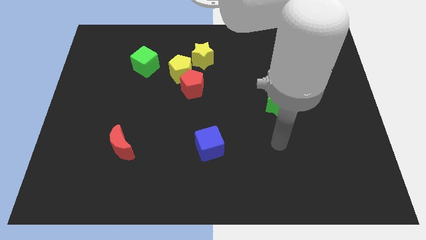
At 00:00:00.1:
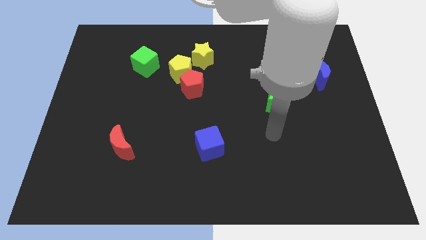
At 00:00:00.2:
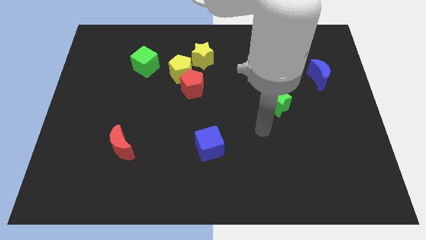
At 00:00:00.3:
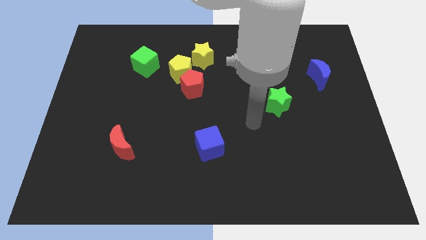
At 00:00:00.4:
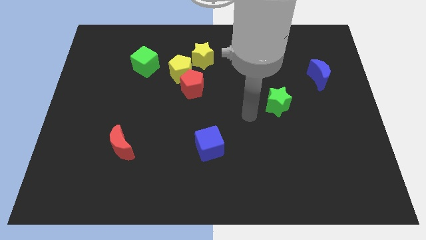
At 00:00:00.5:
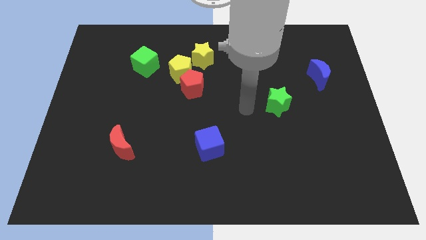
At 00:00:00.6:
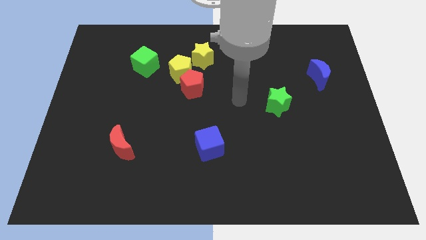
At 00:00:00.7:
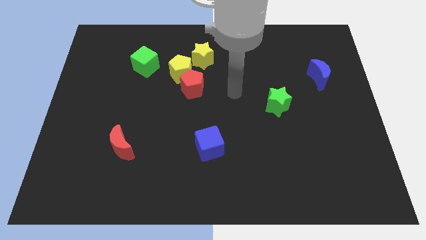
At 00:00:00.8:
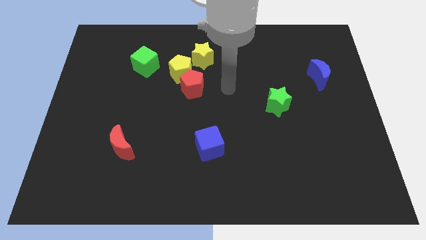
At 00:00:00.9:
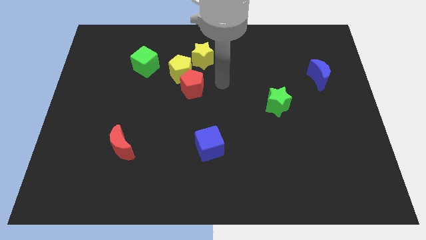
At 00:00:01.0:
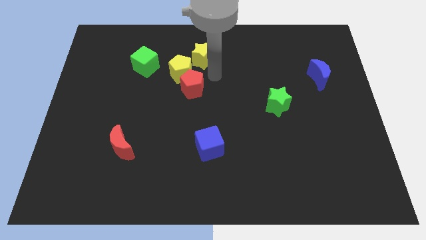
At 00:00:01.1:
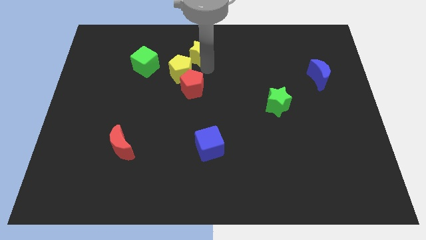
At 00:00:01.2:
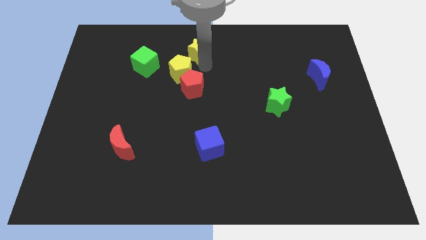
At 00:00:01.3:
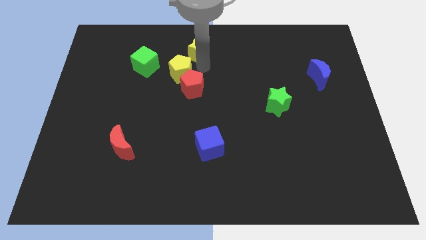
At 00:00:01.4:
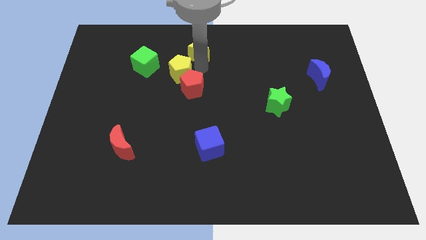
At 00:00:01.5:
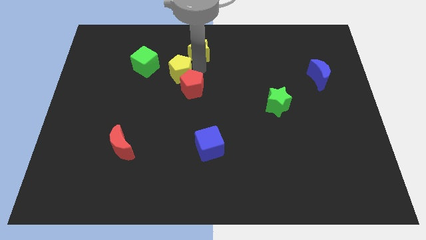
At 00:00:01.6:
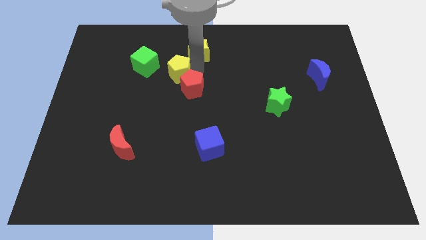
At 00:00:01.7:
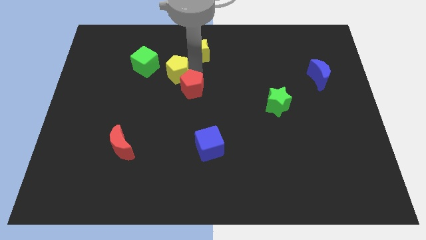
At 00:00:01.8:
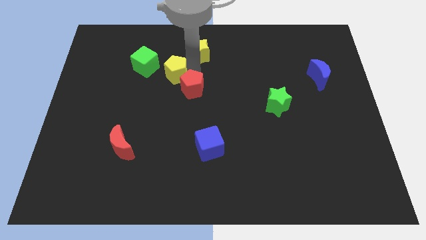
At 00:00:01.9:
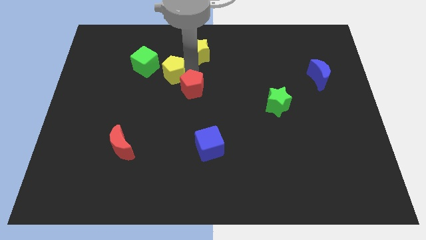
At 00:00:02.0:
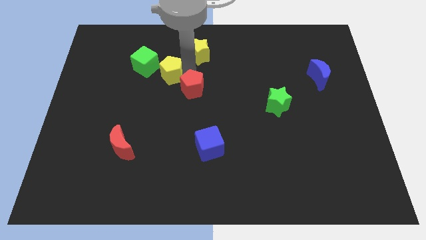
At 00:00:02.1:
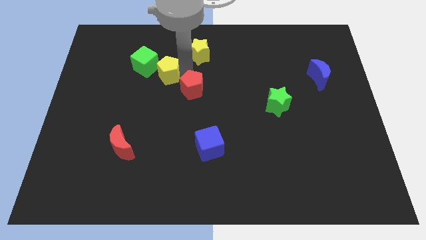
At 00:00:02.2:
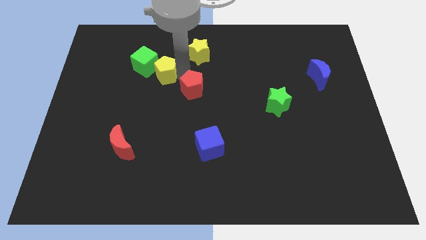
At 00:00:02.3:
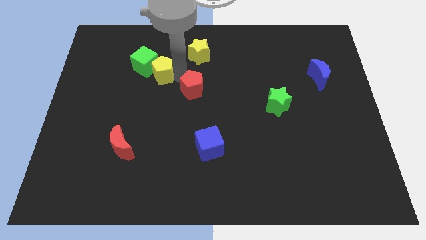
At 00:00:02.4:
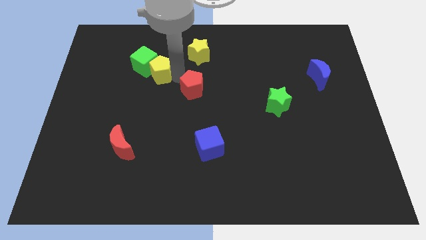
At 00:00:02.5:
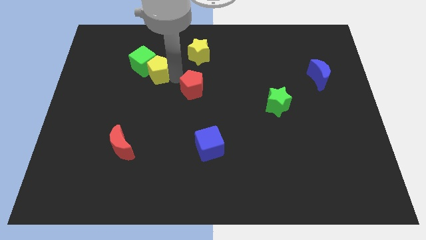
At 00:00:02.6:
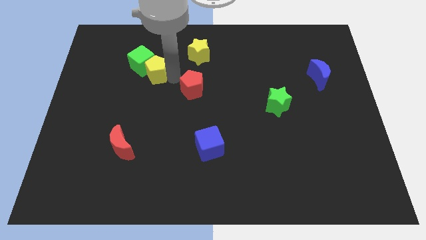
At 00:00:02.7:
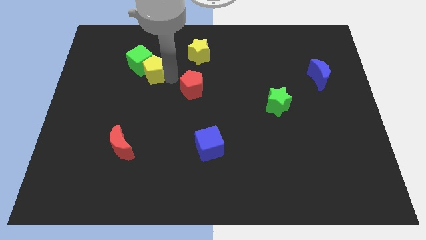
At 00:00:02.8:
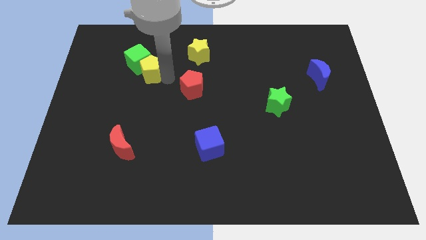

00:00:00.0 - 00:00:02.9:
slightly push the yellow pentagon to the left

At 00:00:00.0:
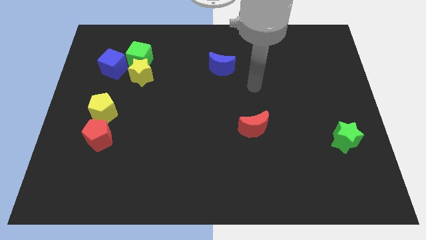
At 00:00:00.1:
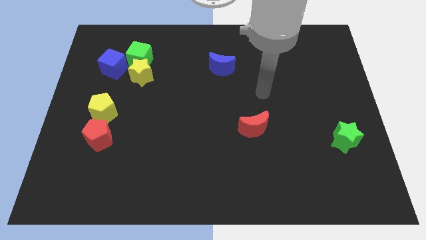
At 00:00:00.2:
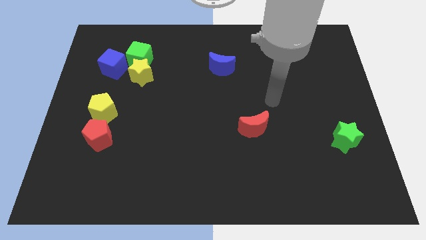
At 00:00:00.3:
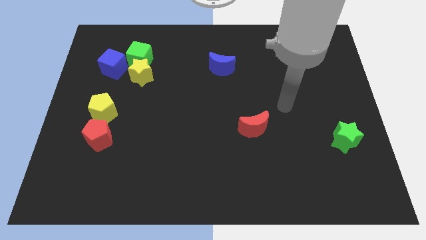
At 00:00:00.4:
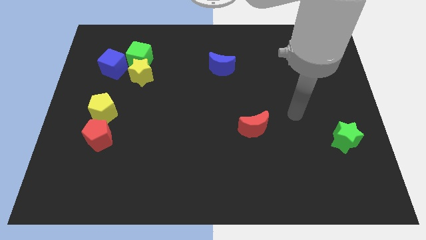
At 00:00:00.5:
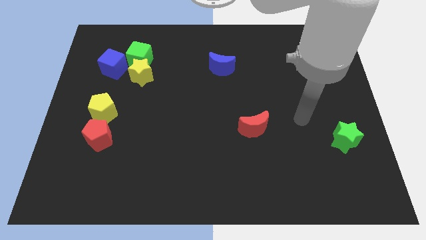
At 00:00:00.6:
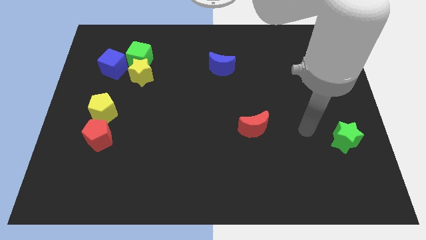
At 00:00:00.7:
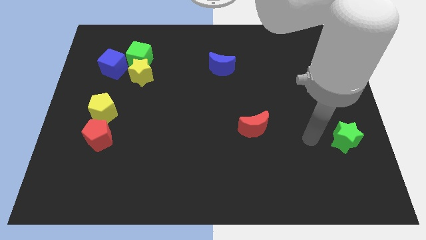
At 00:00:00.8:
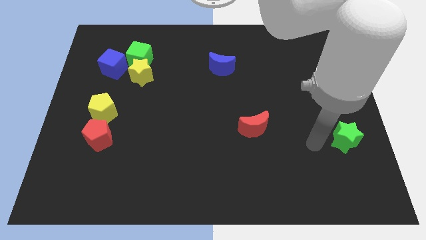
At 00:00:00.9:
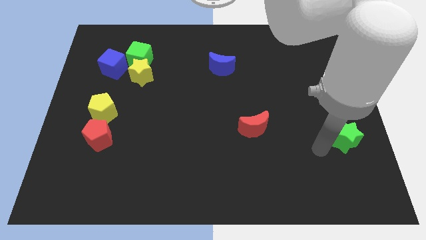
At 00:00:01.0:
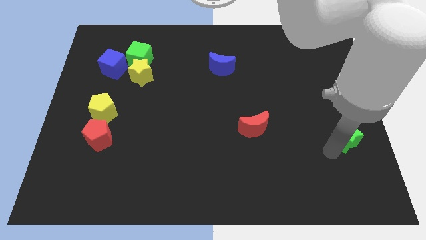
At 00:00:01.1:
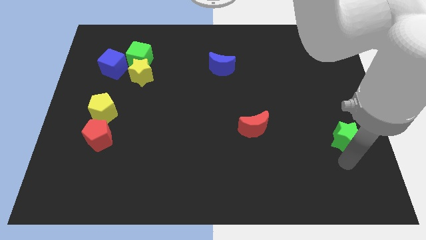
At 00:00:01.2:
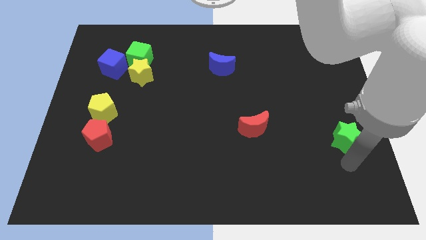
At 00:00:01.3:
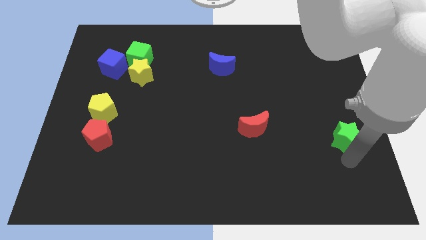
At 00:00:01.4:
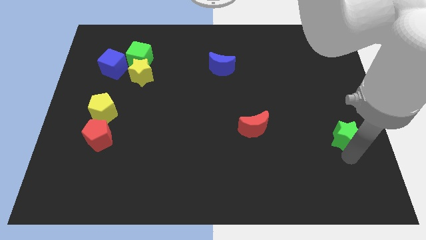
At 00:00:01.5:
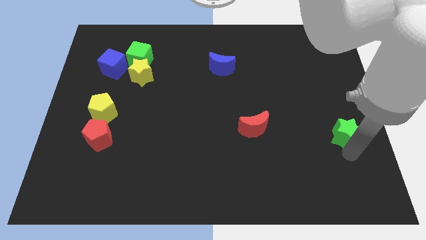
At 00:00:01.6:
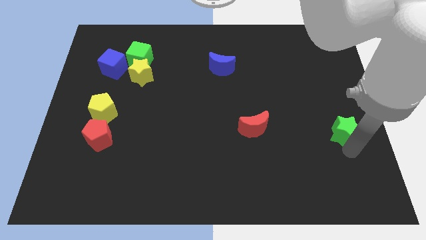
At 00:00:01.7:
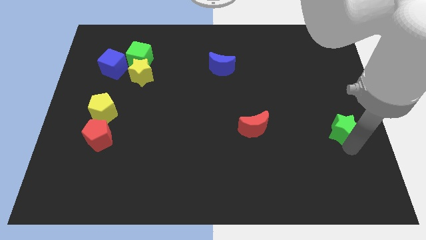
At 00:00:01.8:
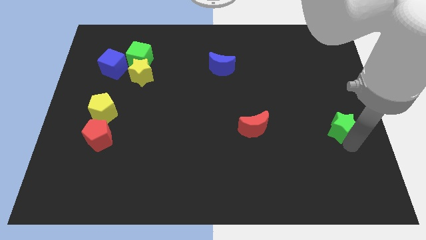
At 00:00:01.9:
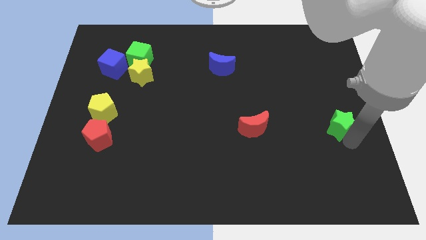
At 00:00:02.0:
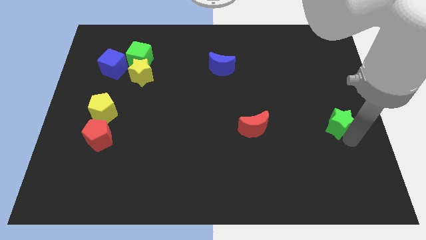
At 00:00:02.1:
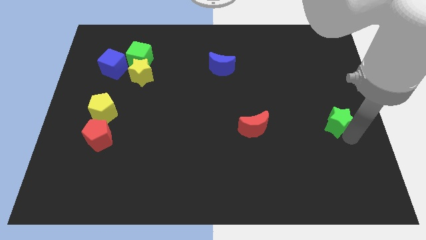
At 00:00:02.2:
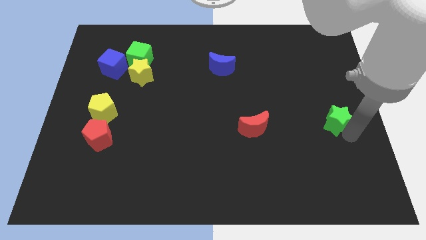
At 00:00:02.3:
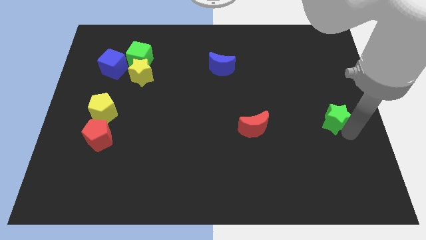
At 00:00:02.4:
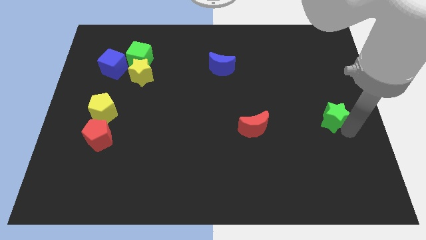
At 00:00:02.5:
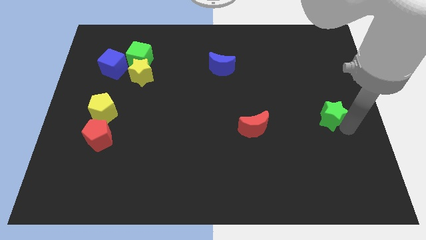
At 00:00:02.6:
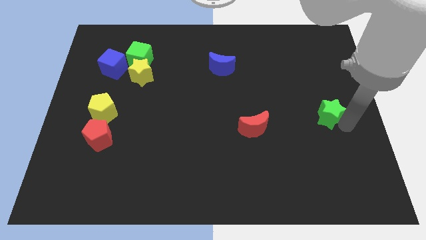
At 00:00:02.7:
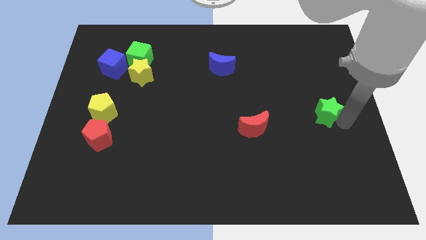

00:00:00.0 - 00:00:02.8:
slightly slide the green star upwards

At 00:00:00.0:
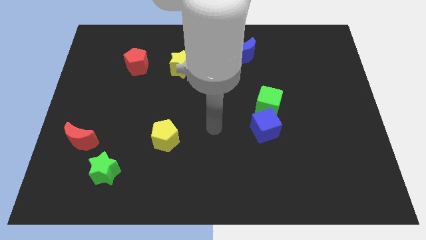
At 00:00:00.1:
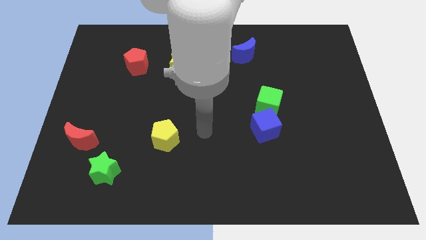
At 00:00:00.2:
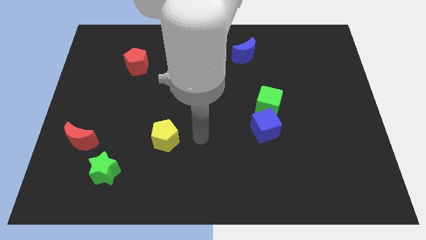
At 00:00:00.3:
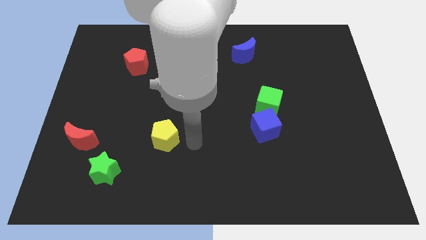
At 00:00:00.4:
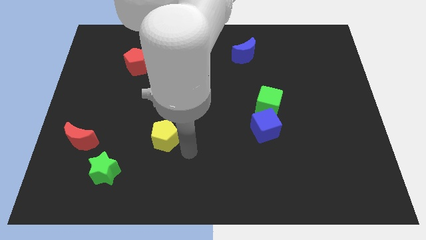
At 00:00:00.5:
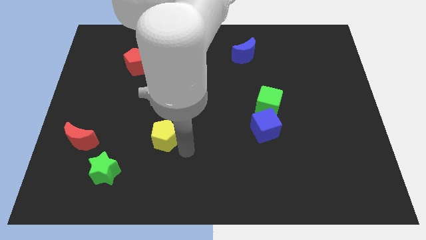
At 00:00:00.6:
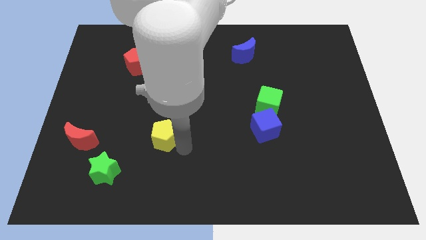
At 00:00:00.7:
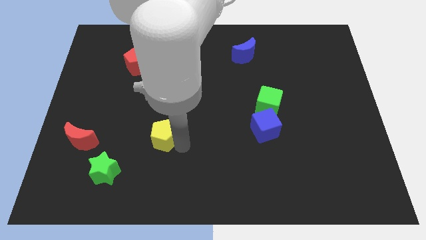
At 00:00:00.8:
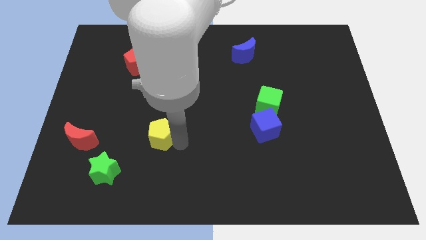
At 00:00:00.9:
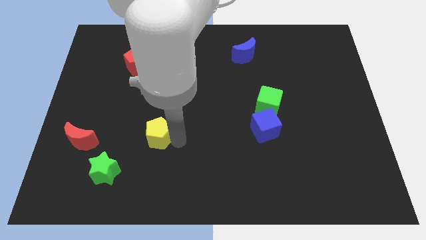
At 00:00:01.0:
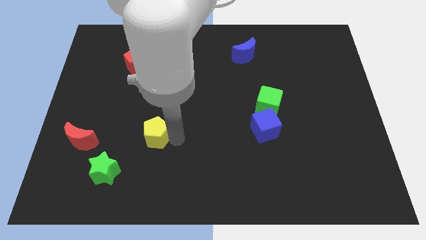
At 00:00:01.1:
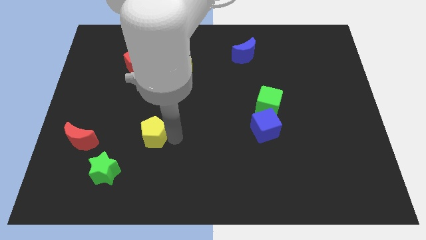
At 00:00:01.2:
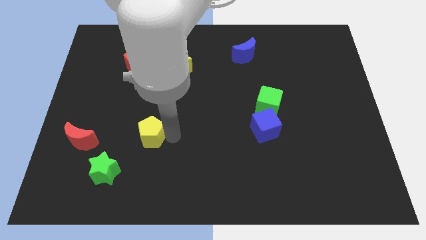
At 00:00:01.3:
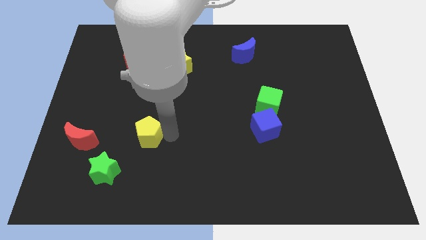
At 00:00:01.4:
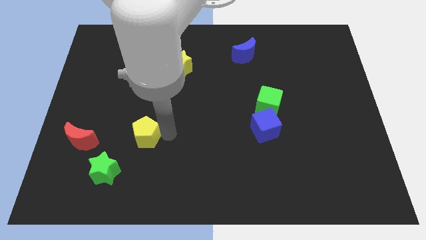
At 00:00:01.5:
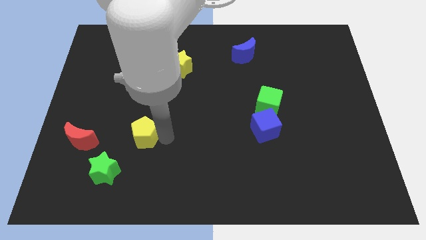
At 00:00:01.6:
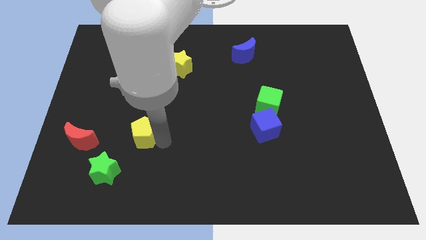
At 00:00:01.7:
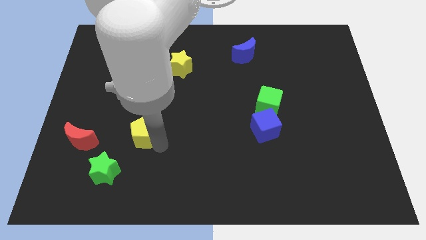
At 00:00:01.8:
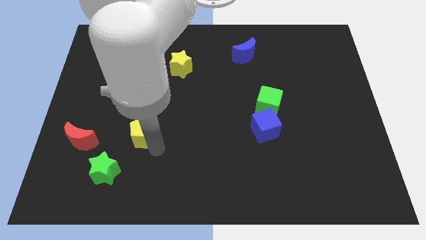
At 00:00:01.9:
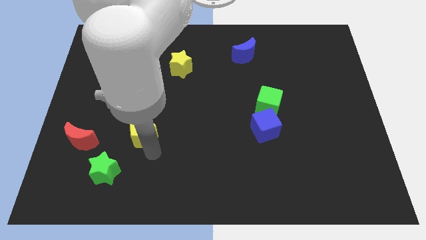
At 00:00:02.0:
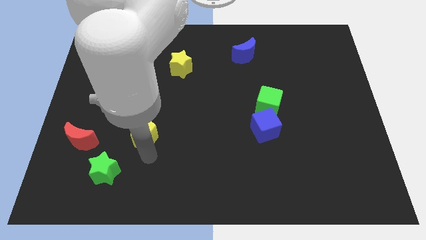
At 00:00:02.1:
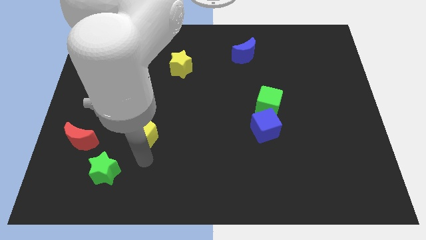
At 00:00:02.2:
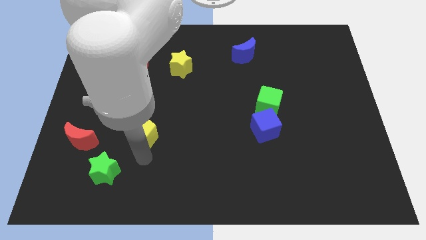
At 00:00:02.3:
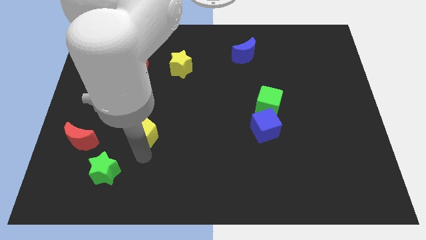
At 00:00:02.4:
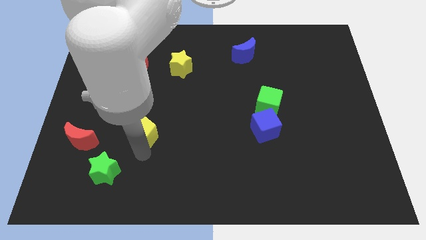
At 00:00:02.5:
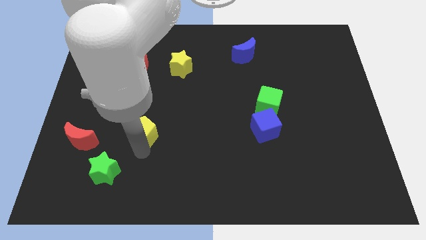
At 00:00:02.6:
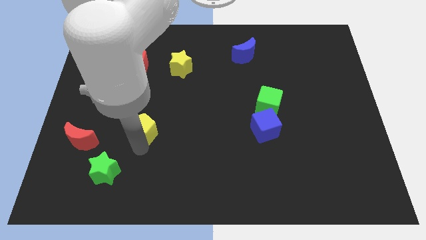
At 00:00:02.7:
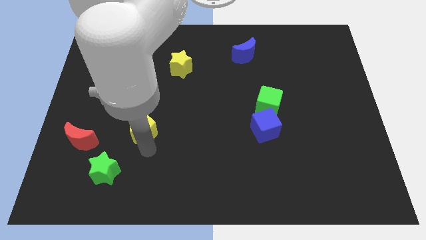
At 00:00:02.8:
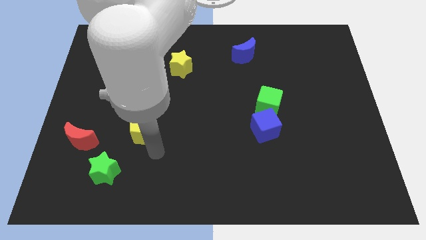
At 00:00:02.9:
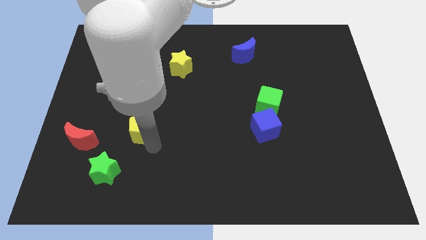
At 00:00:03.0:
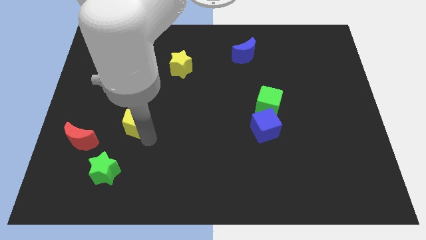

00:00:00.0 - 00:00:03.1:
push the yellow pentagon a little bit up and then left
